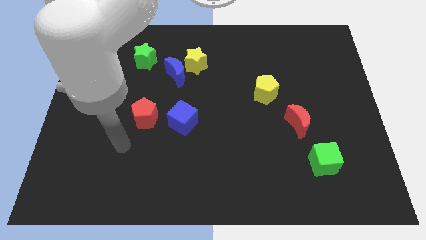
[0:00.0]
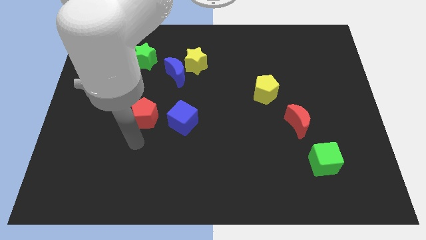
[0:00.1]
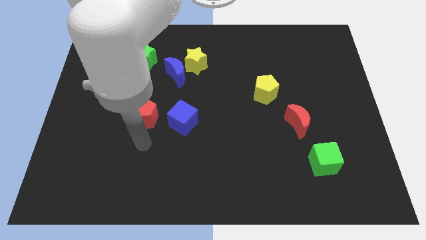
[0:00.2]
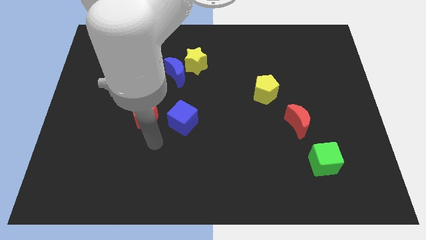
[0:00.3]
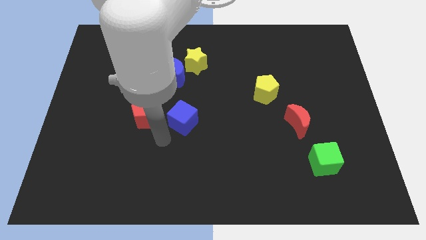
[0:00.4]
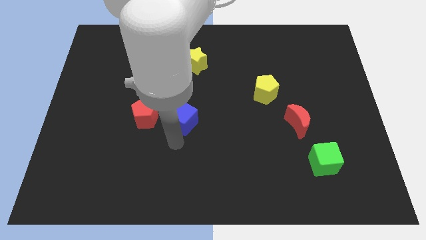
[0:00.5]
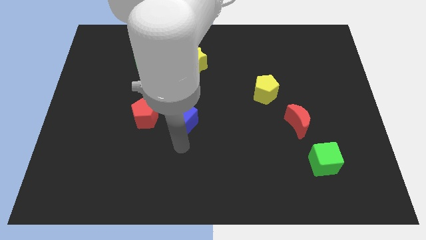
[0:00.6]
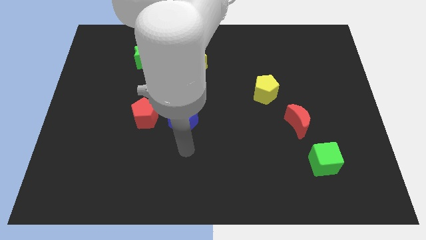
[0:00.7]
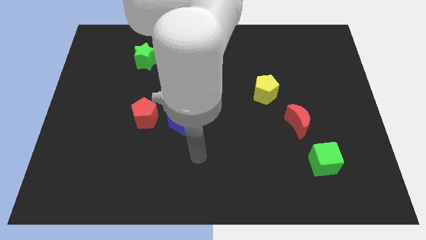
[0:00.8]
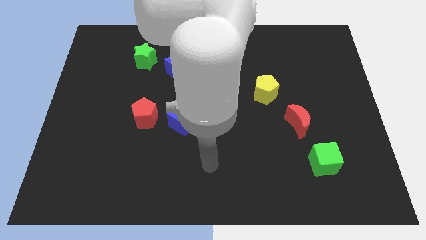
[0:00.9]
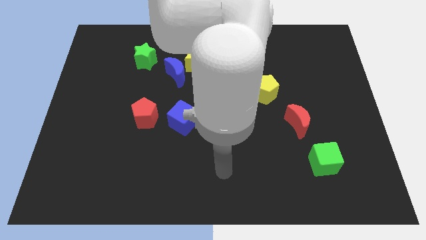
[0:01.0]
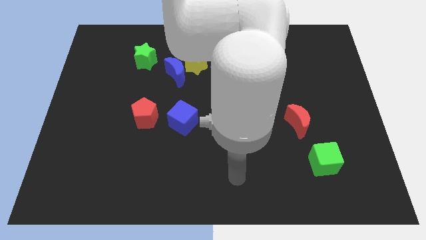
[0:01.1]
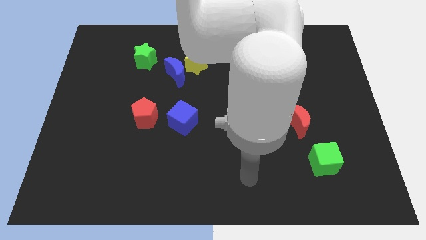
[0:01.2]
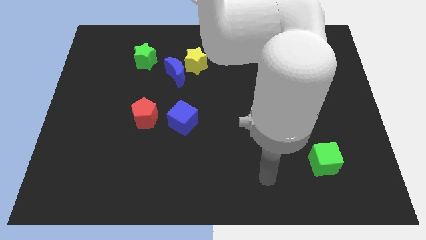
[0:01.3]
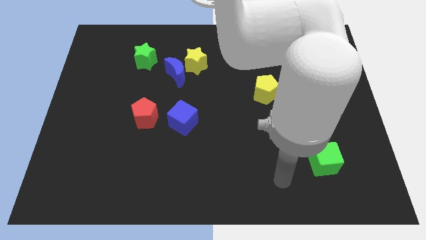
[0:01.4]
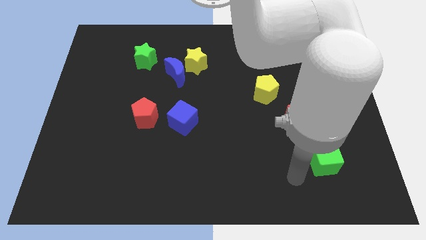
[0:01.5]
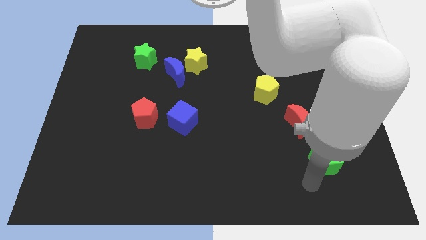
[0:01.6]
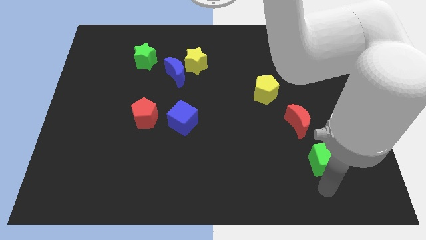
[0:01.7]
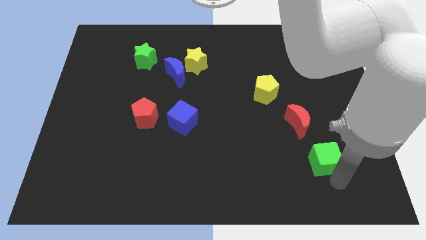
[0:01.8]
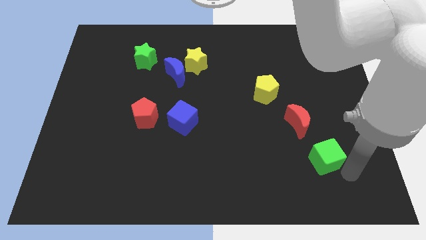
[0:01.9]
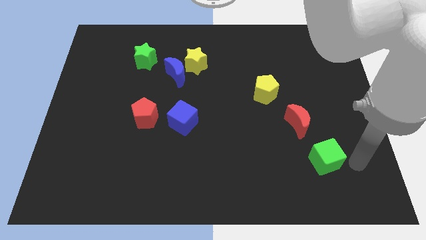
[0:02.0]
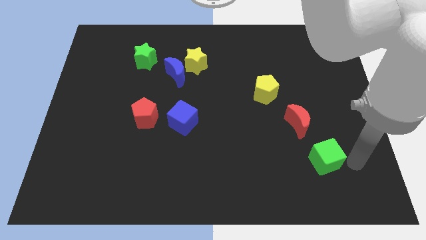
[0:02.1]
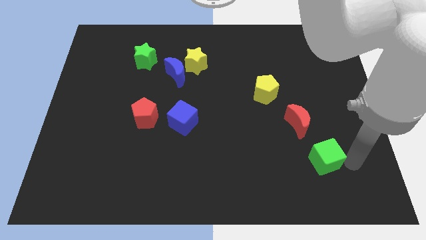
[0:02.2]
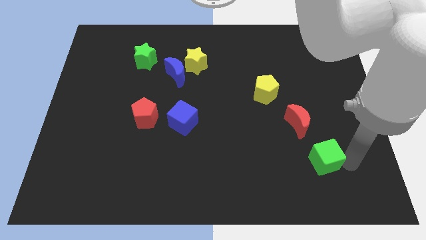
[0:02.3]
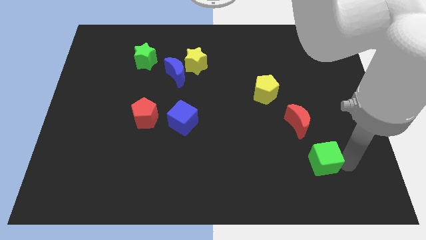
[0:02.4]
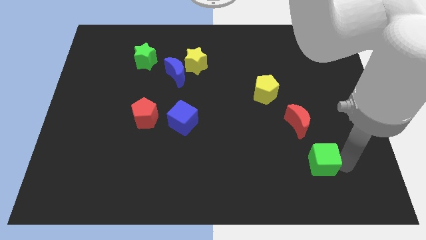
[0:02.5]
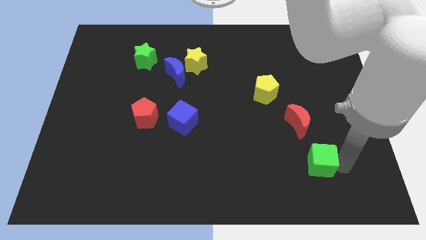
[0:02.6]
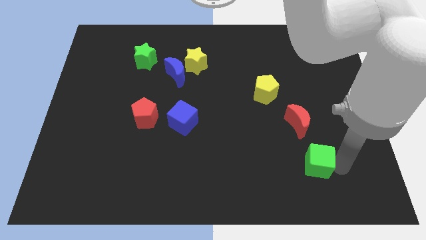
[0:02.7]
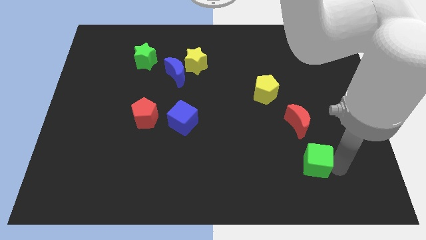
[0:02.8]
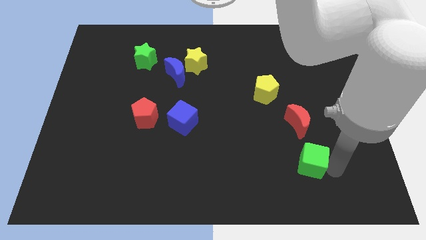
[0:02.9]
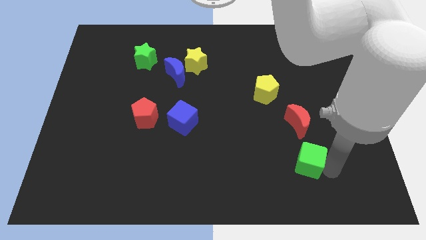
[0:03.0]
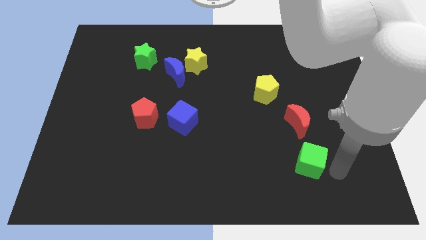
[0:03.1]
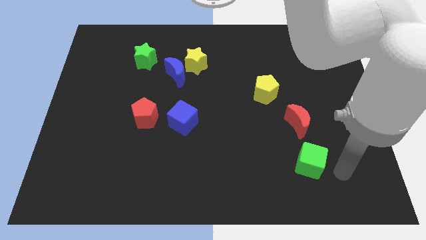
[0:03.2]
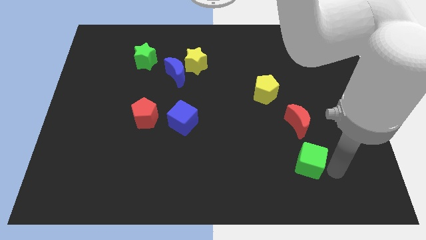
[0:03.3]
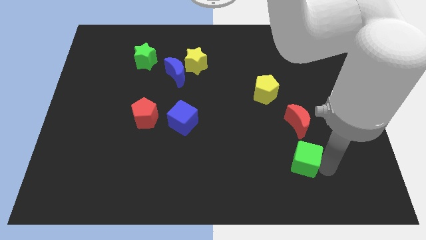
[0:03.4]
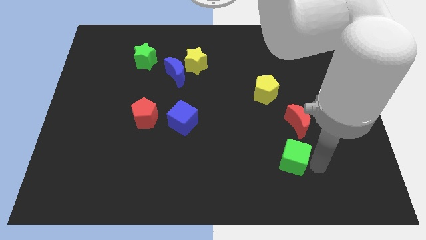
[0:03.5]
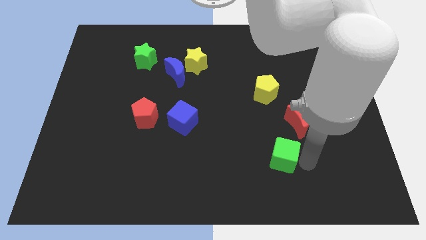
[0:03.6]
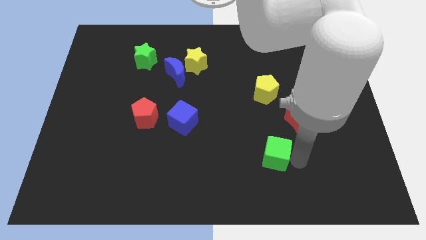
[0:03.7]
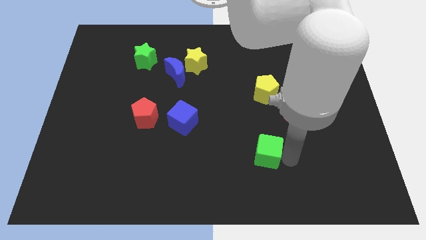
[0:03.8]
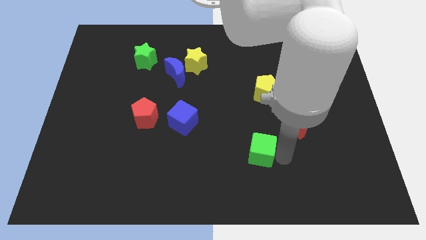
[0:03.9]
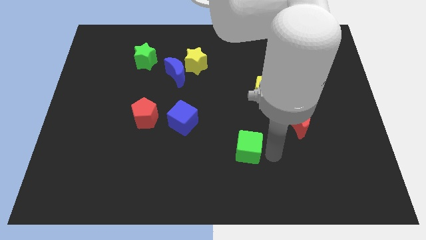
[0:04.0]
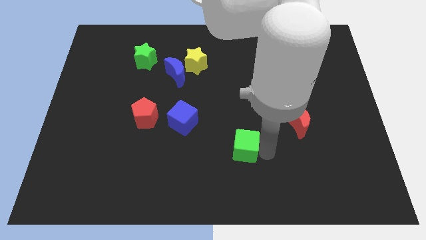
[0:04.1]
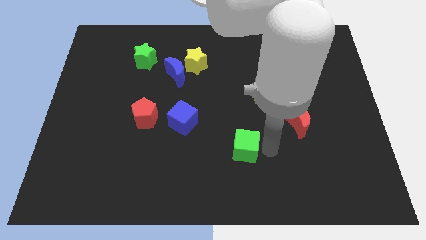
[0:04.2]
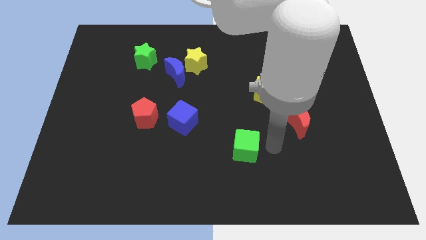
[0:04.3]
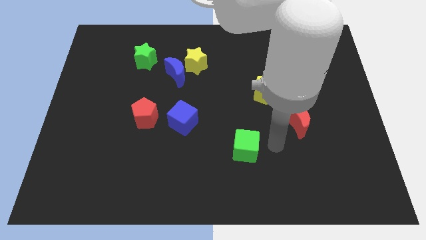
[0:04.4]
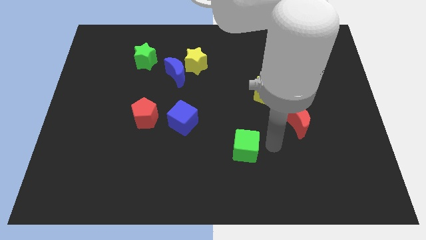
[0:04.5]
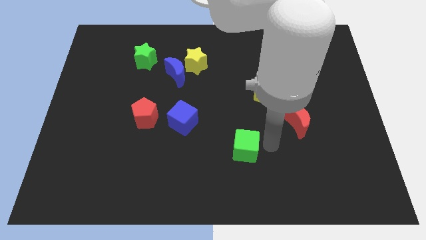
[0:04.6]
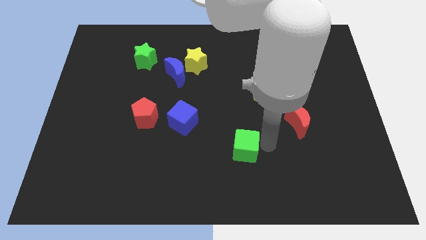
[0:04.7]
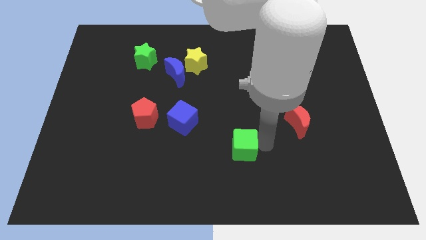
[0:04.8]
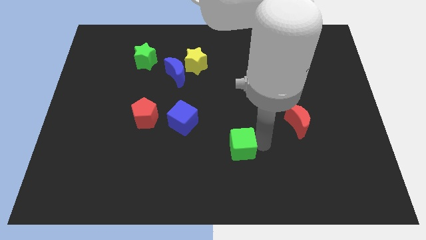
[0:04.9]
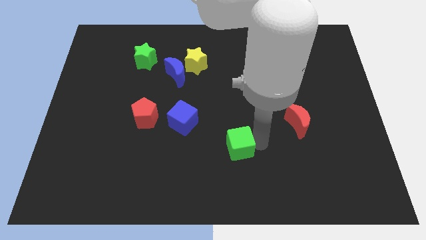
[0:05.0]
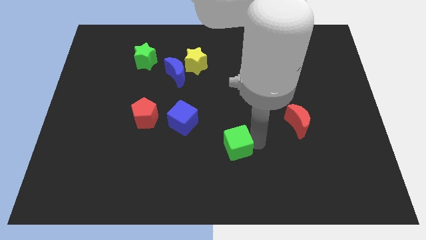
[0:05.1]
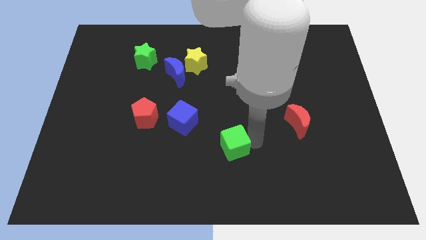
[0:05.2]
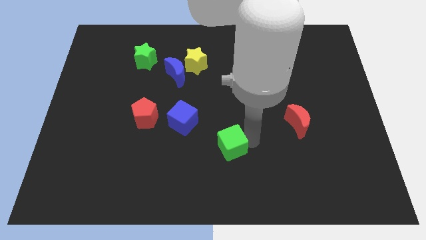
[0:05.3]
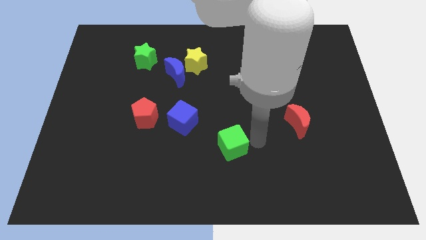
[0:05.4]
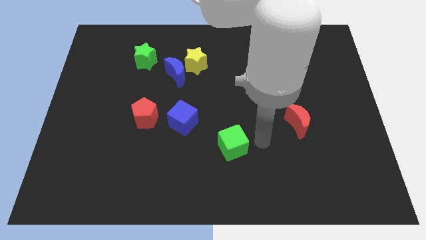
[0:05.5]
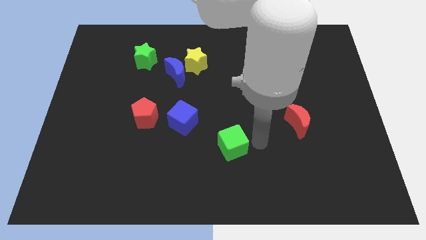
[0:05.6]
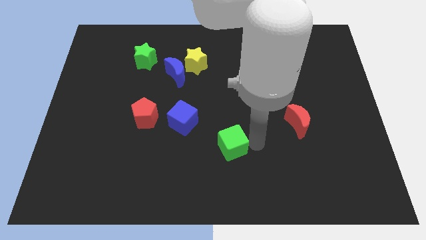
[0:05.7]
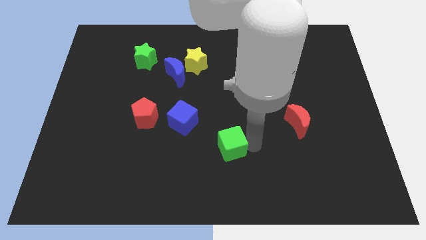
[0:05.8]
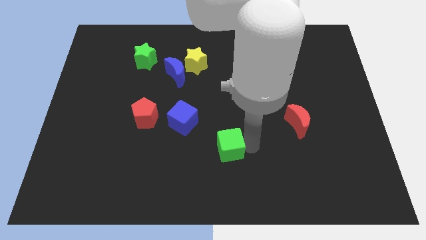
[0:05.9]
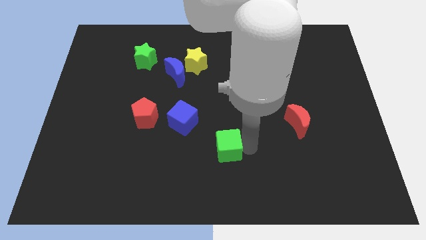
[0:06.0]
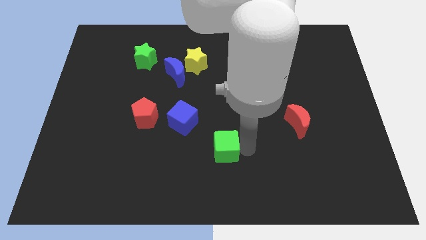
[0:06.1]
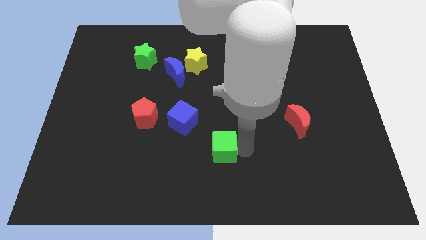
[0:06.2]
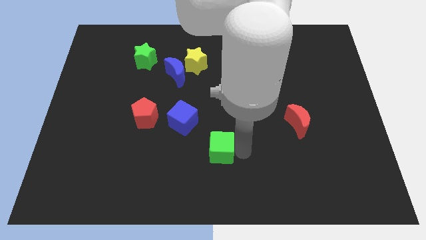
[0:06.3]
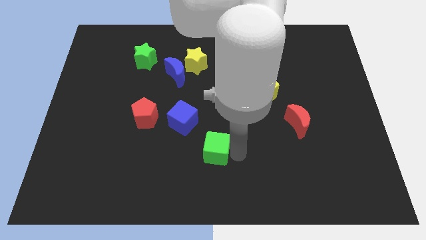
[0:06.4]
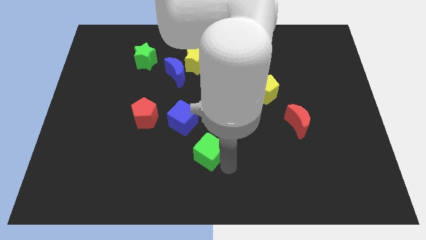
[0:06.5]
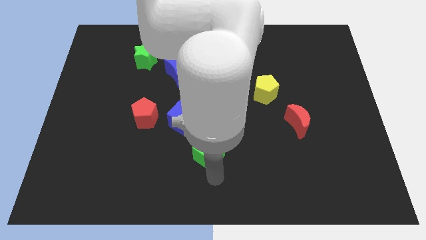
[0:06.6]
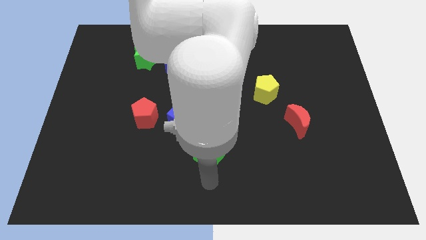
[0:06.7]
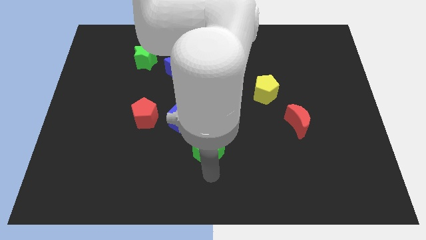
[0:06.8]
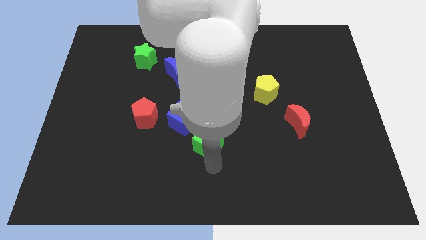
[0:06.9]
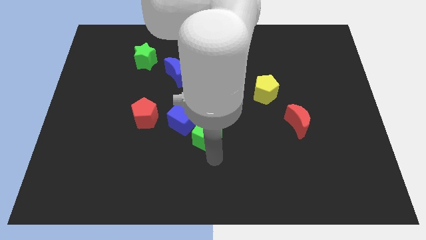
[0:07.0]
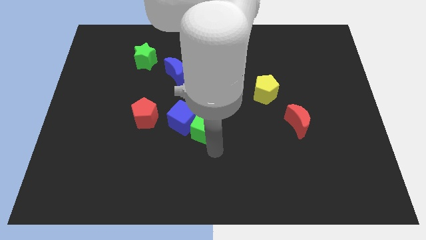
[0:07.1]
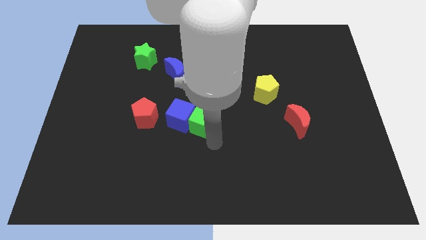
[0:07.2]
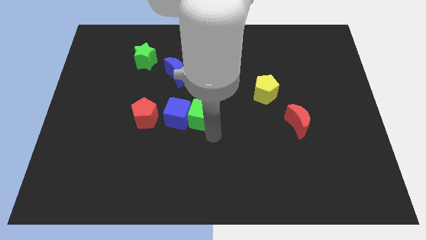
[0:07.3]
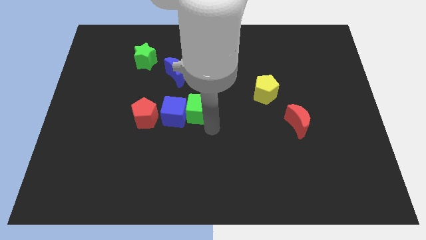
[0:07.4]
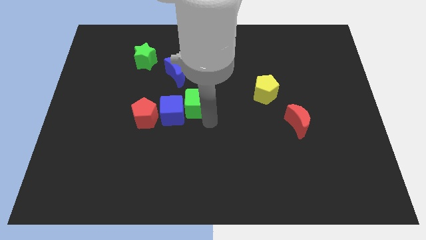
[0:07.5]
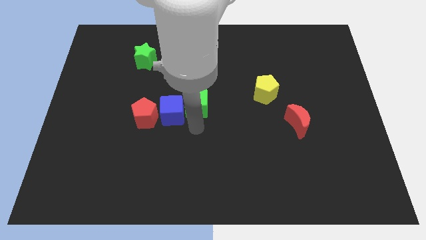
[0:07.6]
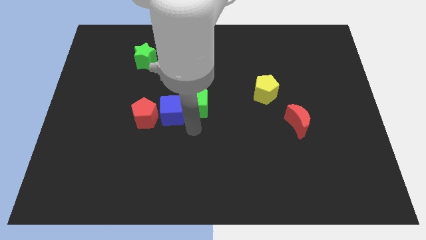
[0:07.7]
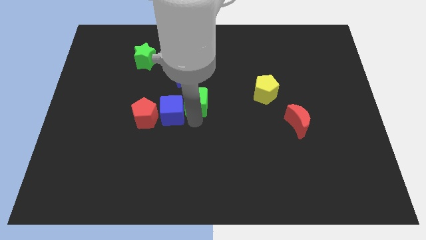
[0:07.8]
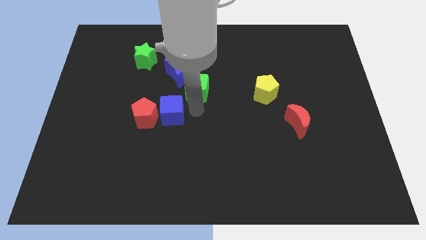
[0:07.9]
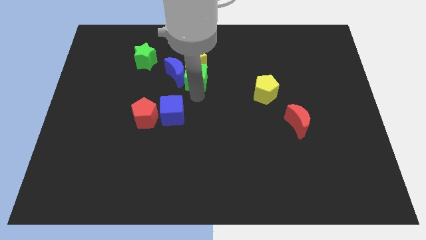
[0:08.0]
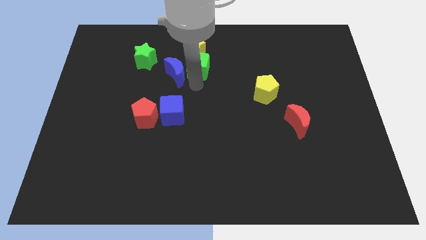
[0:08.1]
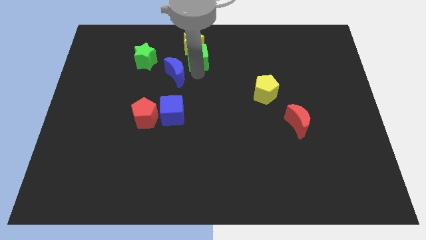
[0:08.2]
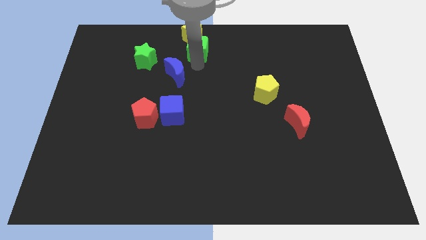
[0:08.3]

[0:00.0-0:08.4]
push the green cube to the top
